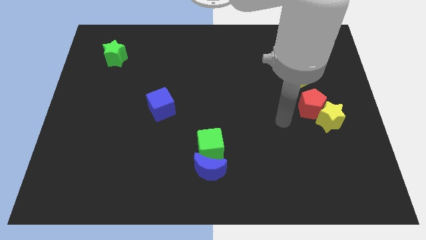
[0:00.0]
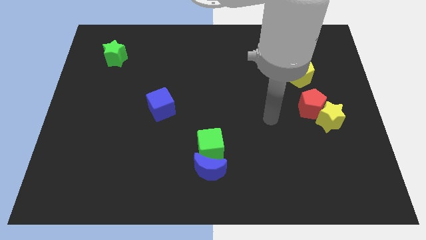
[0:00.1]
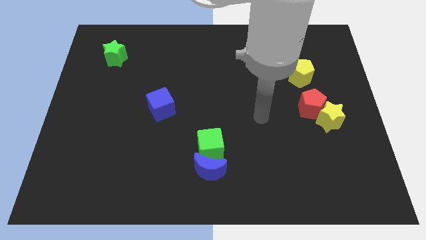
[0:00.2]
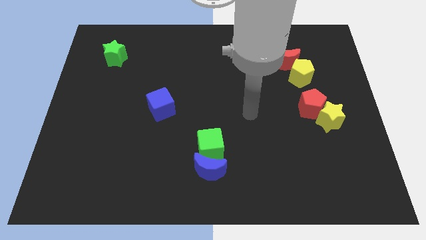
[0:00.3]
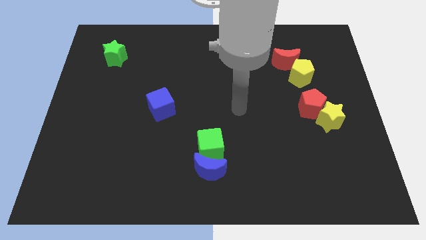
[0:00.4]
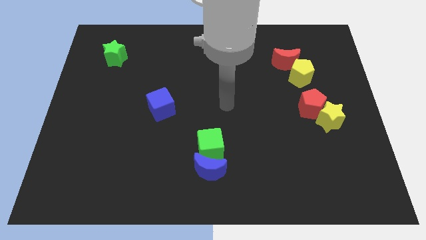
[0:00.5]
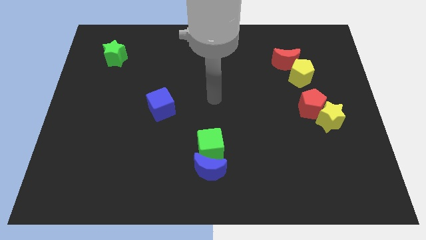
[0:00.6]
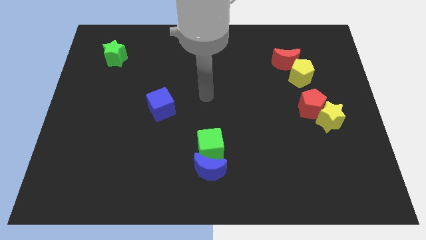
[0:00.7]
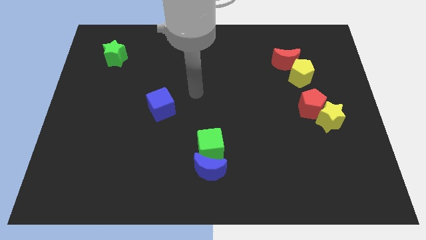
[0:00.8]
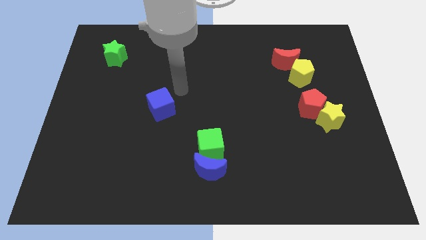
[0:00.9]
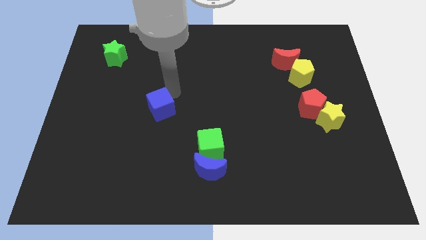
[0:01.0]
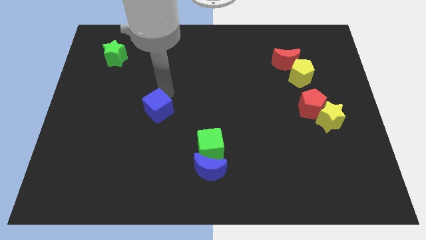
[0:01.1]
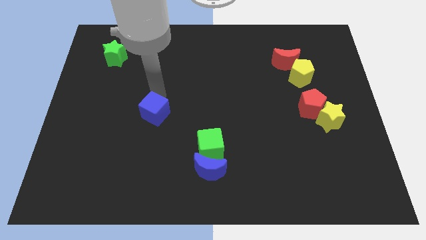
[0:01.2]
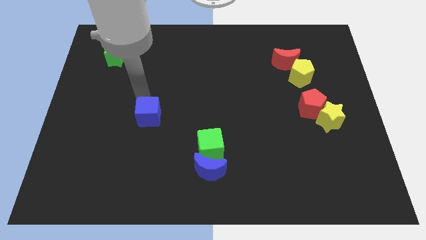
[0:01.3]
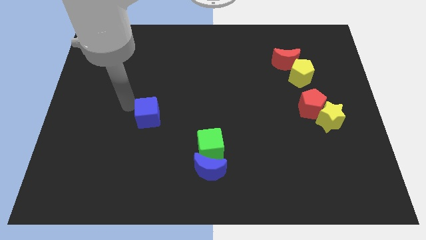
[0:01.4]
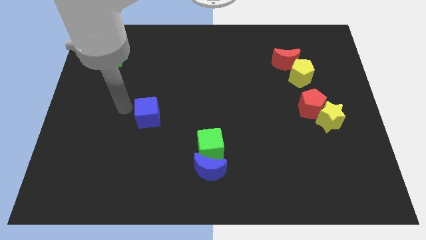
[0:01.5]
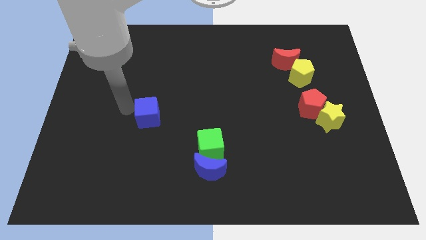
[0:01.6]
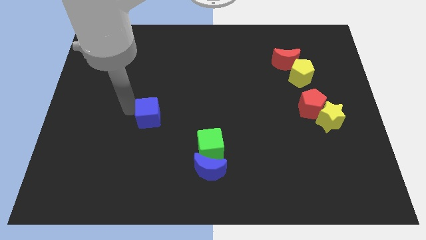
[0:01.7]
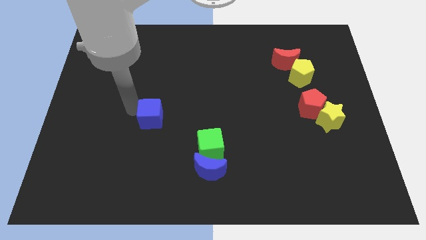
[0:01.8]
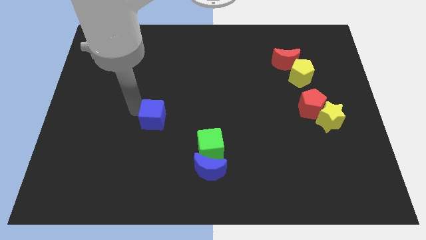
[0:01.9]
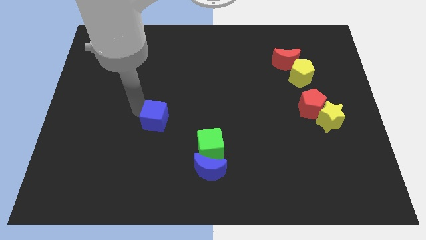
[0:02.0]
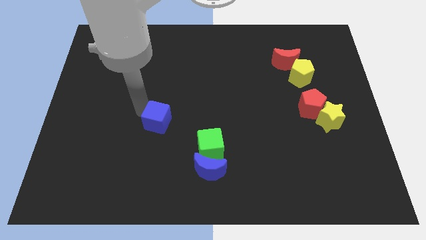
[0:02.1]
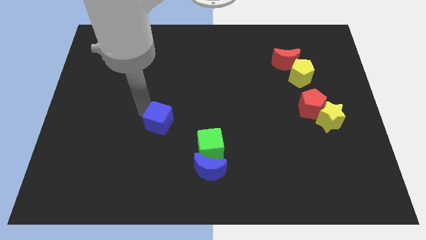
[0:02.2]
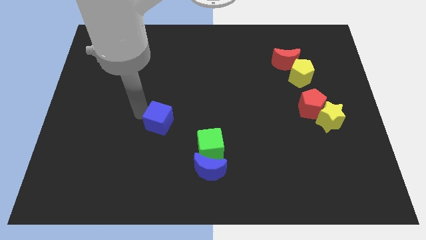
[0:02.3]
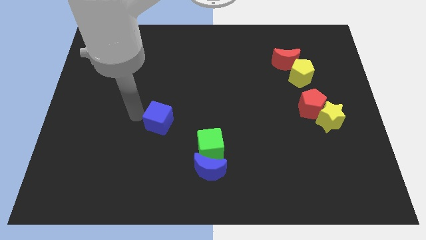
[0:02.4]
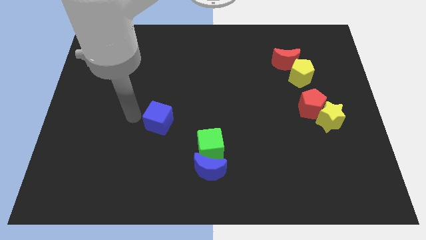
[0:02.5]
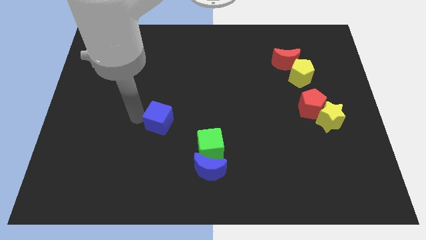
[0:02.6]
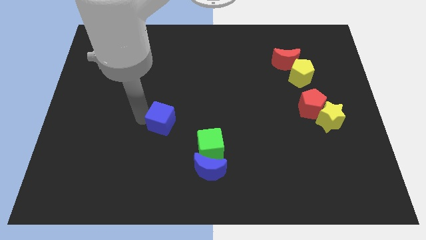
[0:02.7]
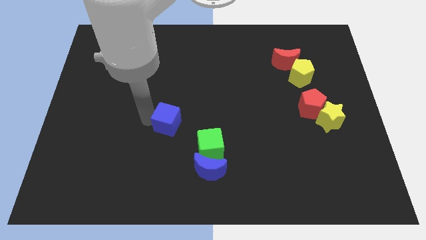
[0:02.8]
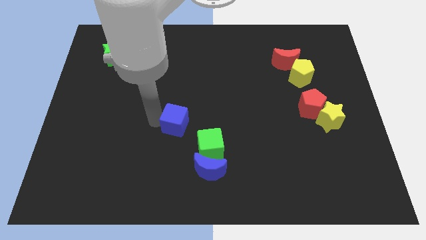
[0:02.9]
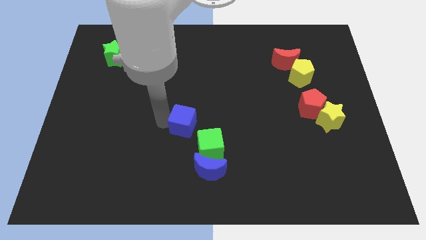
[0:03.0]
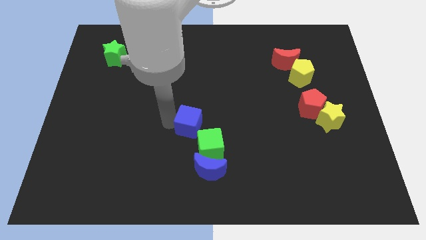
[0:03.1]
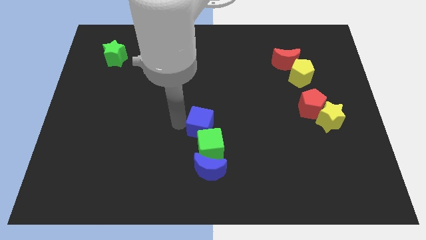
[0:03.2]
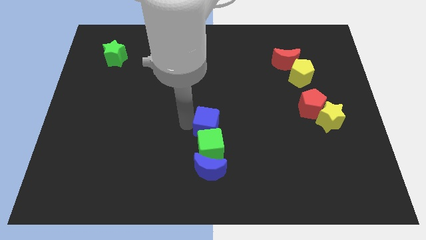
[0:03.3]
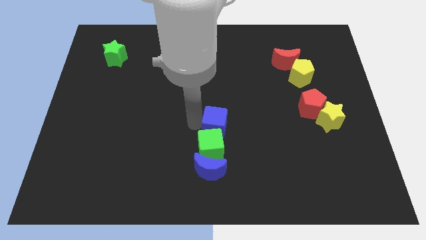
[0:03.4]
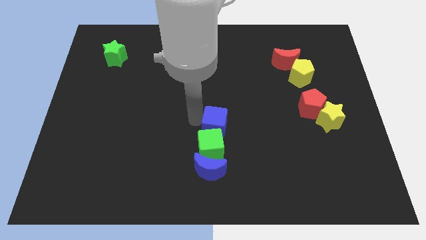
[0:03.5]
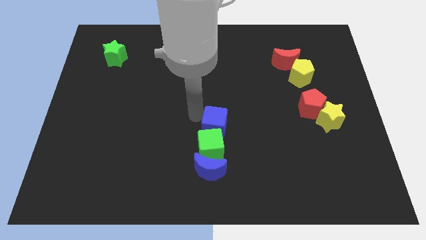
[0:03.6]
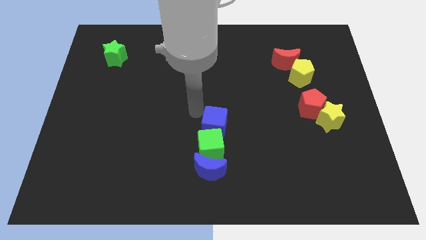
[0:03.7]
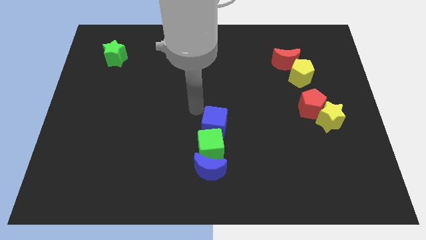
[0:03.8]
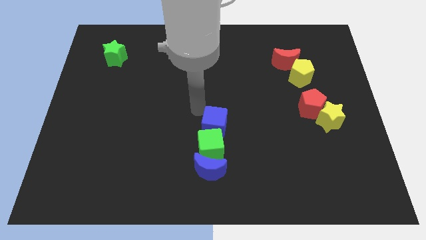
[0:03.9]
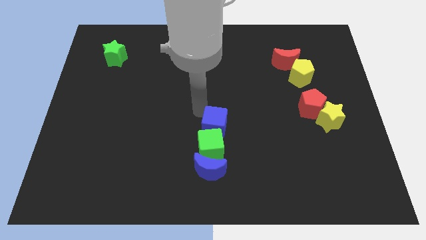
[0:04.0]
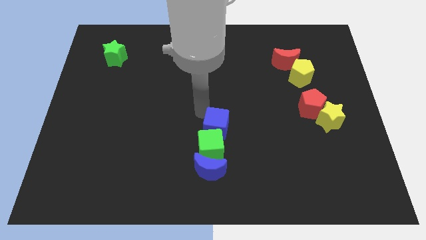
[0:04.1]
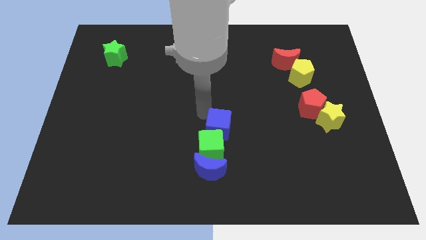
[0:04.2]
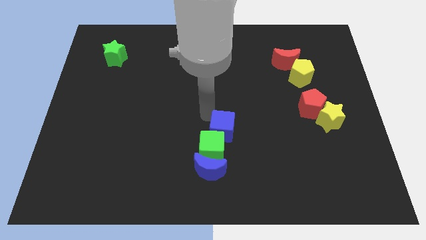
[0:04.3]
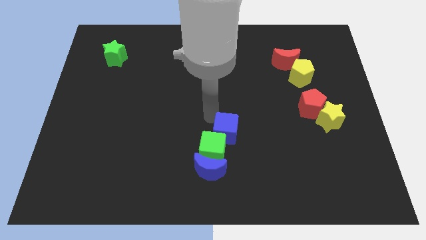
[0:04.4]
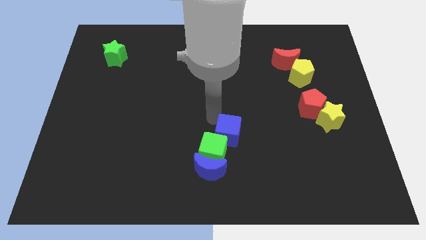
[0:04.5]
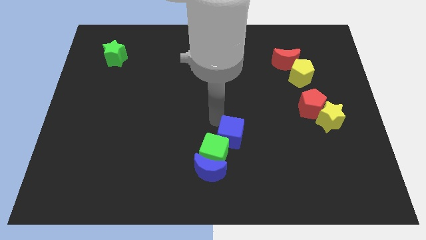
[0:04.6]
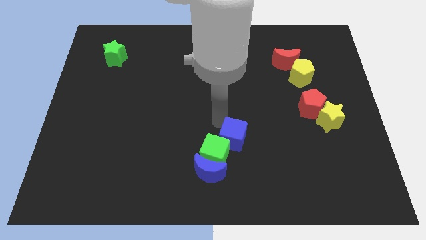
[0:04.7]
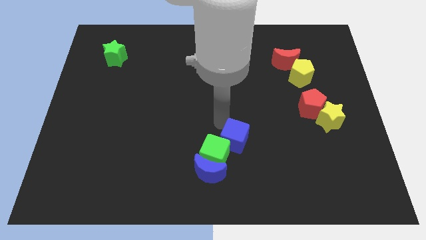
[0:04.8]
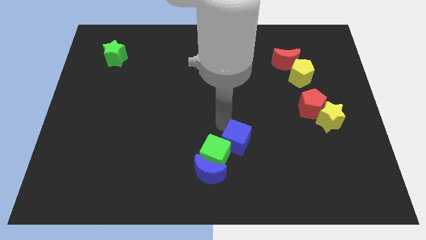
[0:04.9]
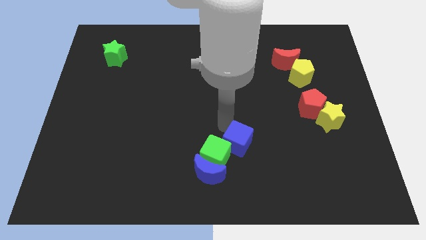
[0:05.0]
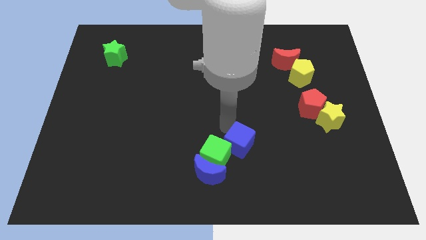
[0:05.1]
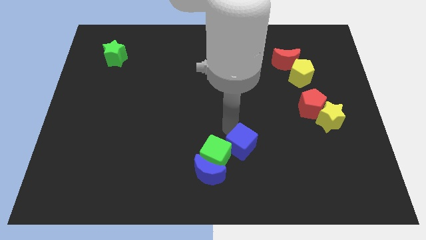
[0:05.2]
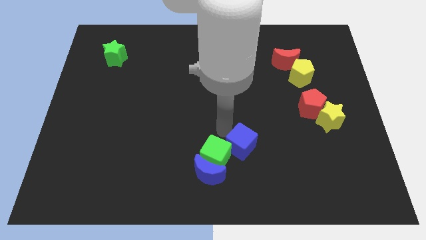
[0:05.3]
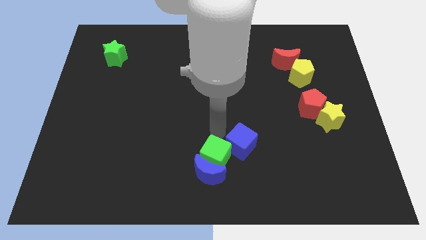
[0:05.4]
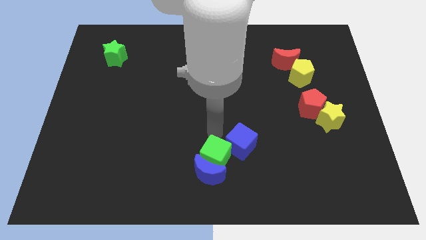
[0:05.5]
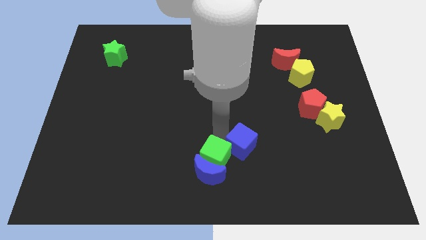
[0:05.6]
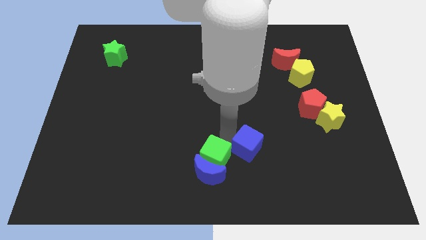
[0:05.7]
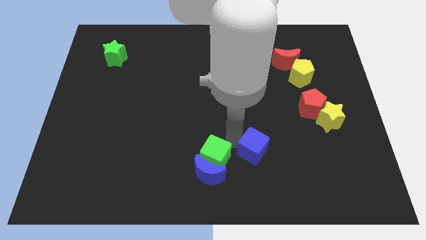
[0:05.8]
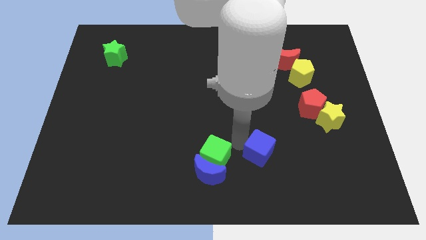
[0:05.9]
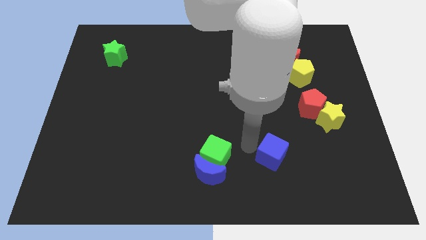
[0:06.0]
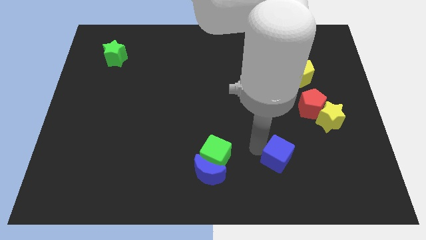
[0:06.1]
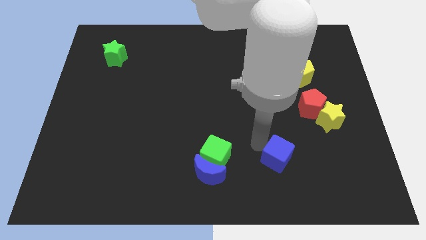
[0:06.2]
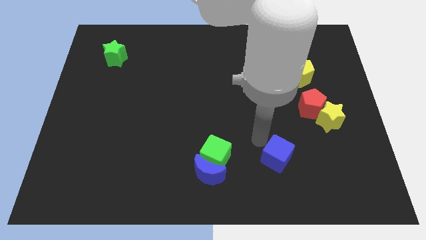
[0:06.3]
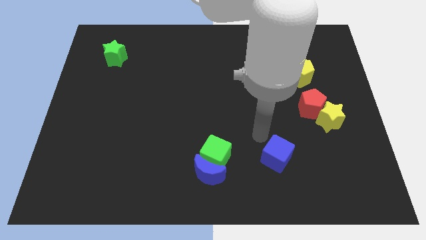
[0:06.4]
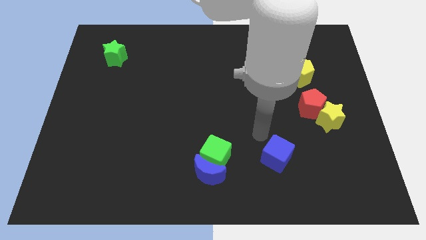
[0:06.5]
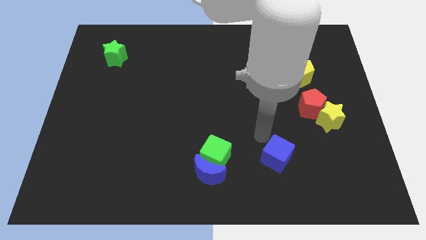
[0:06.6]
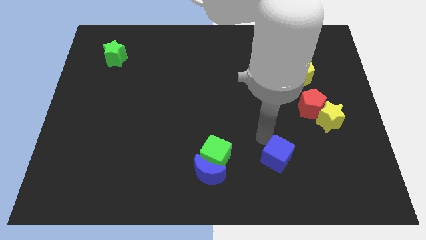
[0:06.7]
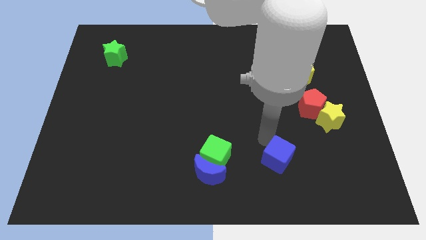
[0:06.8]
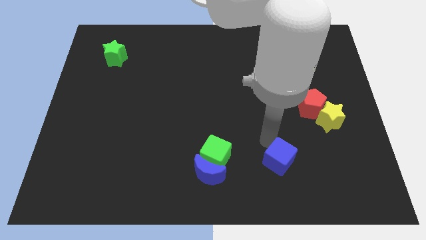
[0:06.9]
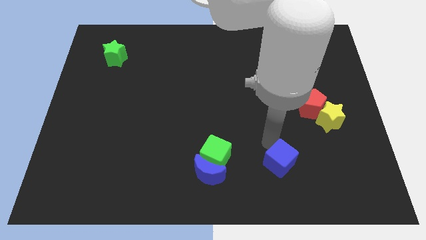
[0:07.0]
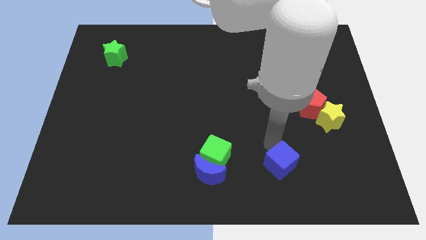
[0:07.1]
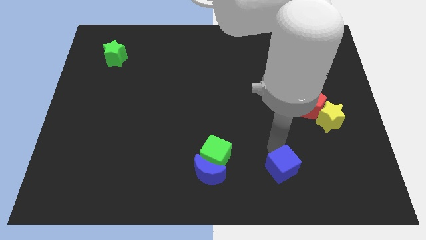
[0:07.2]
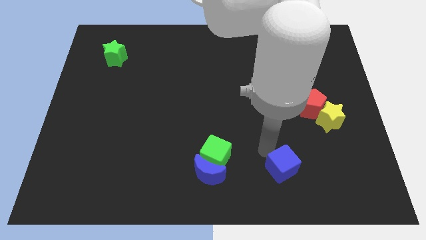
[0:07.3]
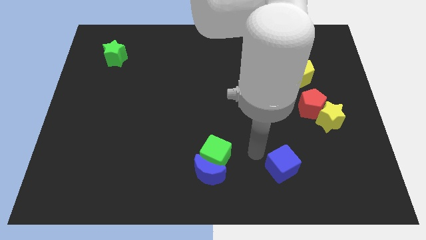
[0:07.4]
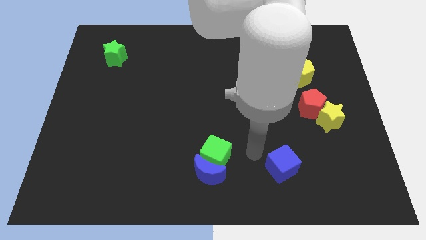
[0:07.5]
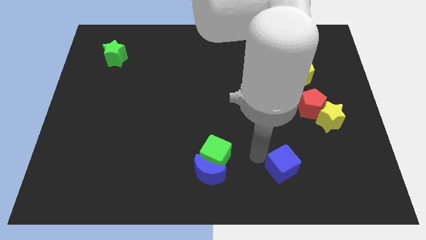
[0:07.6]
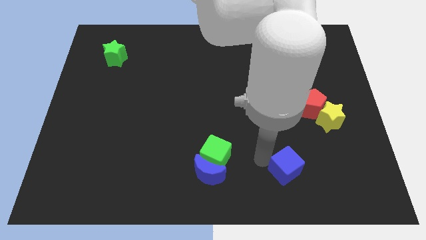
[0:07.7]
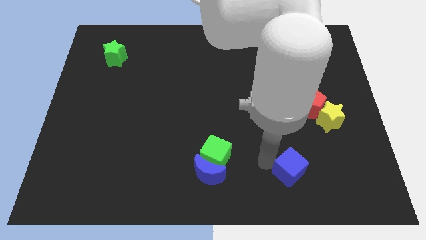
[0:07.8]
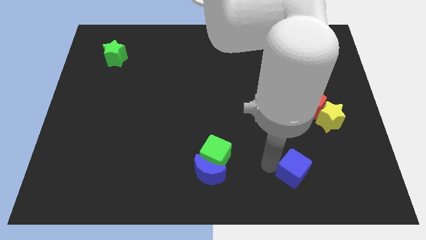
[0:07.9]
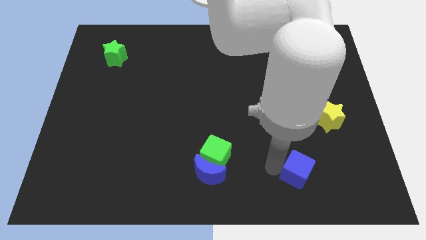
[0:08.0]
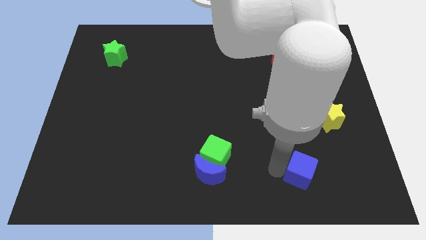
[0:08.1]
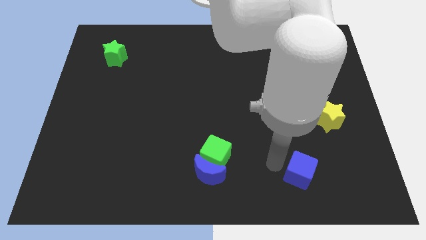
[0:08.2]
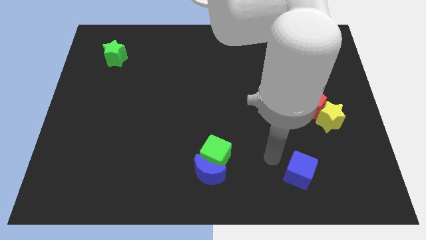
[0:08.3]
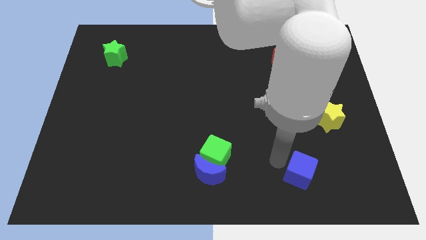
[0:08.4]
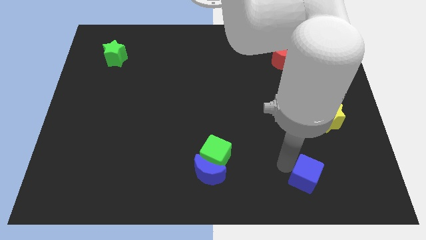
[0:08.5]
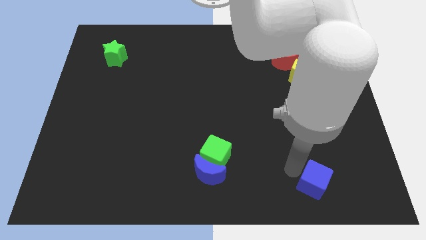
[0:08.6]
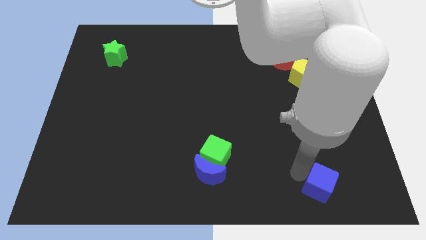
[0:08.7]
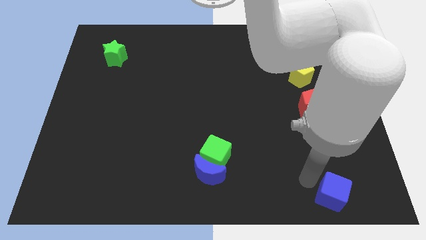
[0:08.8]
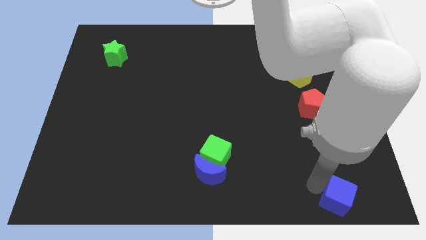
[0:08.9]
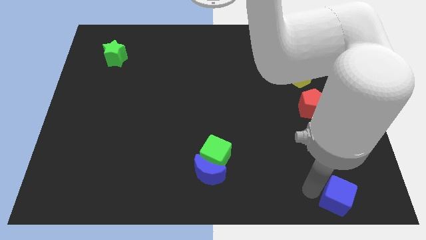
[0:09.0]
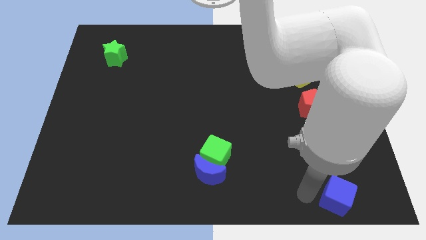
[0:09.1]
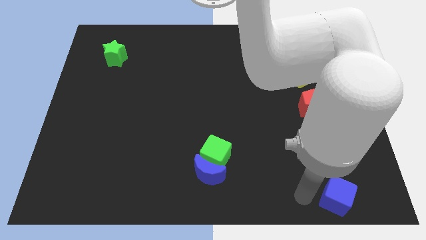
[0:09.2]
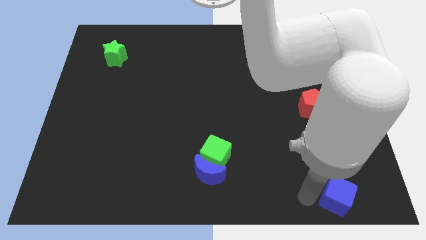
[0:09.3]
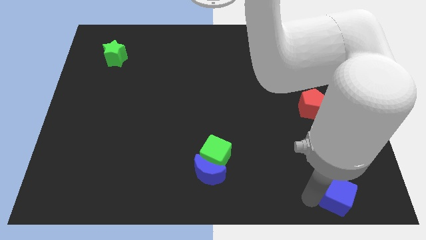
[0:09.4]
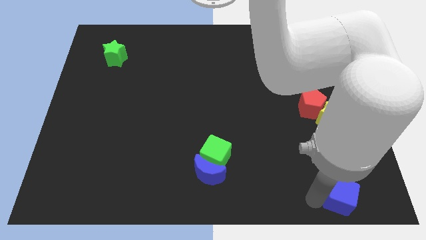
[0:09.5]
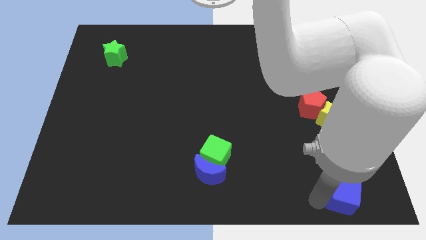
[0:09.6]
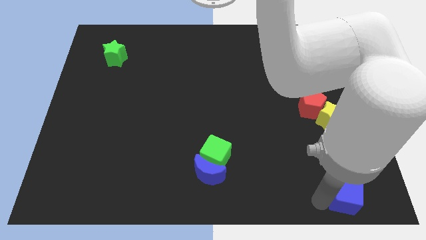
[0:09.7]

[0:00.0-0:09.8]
put the blue cube to the bottom right
